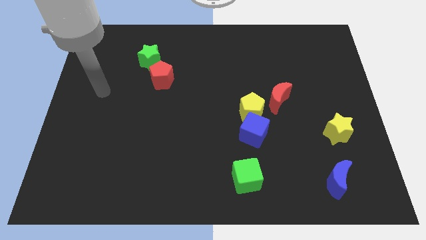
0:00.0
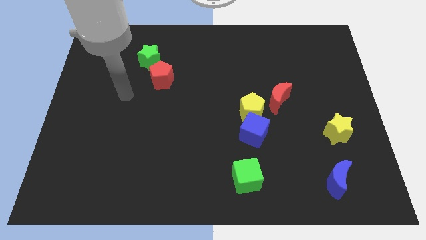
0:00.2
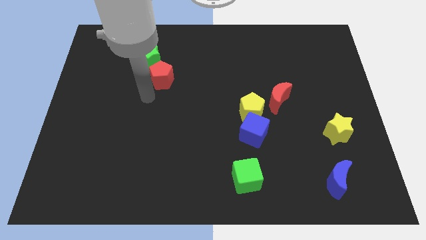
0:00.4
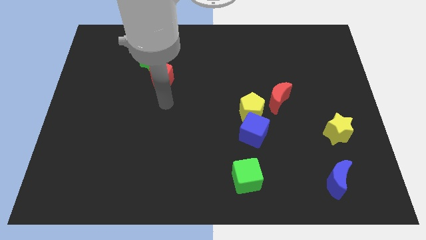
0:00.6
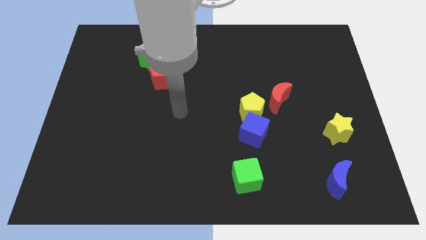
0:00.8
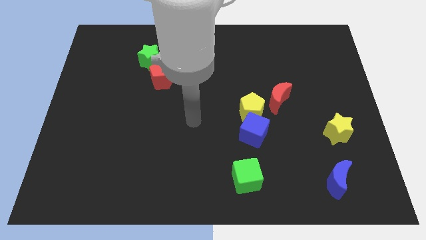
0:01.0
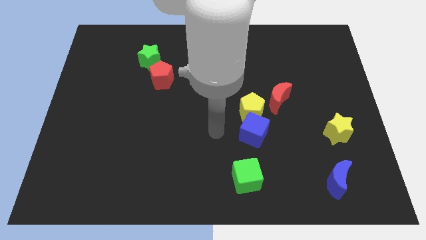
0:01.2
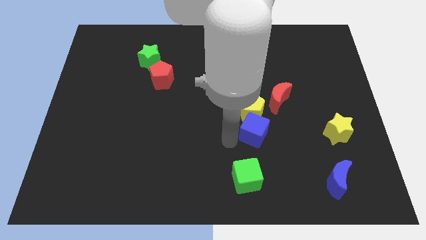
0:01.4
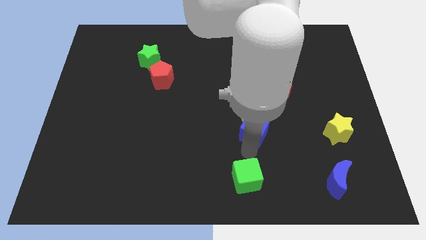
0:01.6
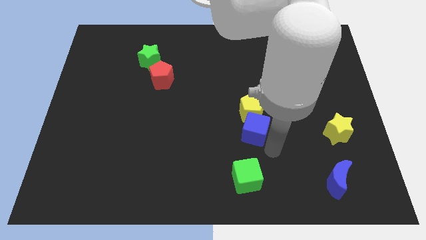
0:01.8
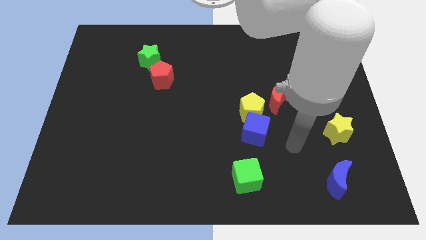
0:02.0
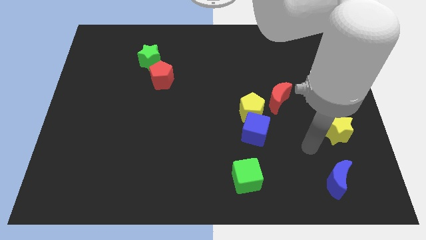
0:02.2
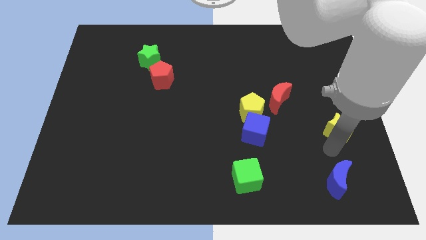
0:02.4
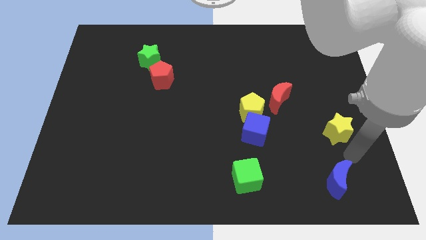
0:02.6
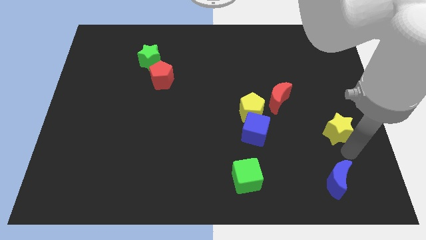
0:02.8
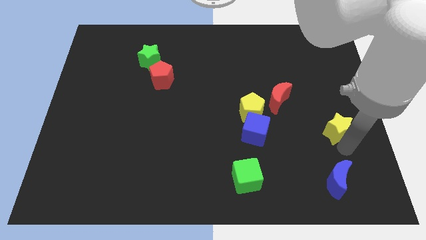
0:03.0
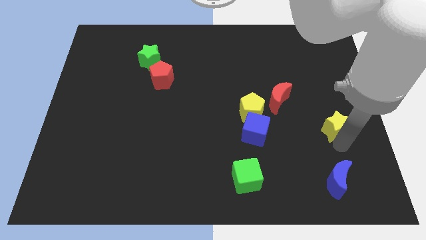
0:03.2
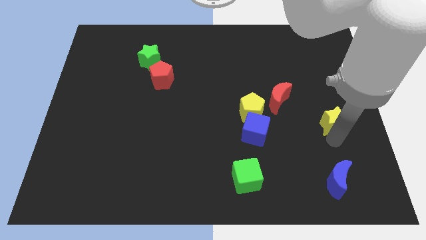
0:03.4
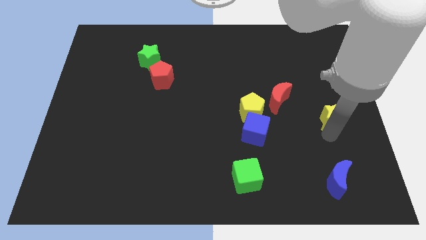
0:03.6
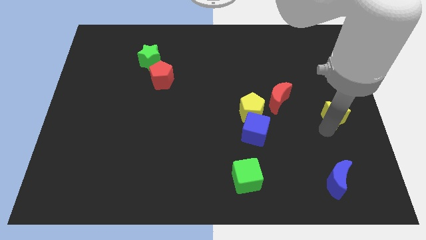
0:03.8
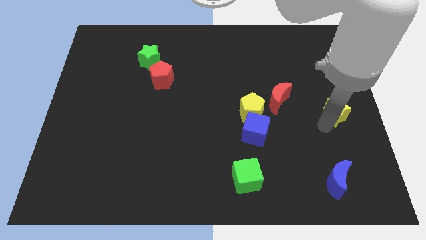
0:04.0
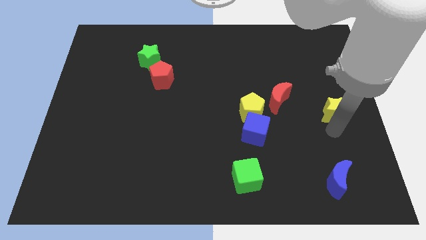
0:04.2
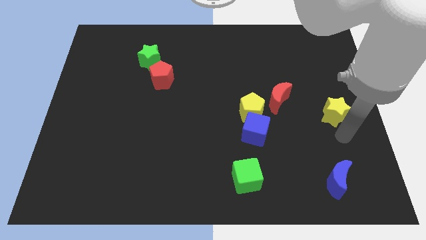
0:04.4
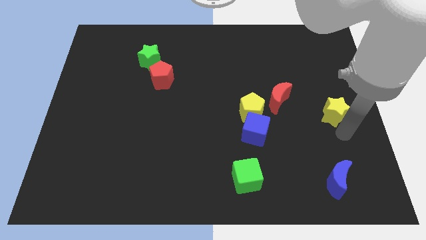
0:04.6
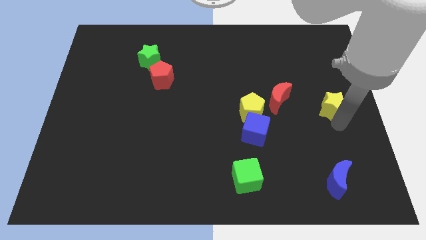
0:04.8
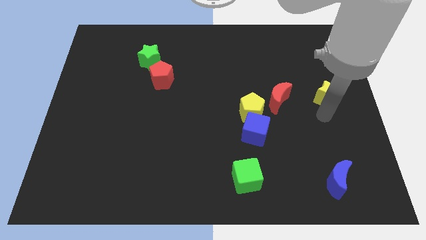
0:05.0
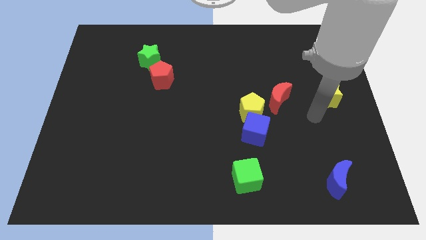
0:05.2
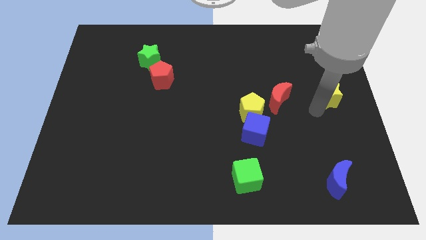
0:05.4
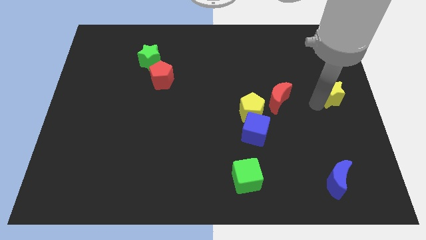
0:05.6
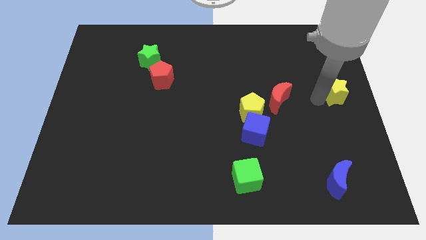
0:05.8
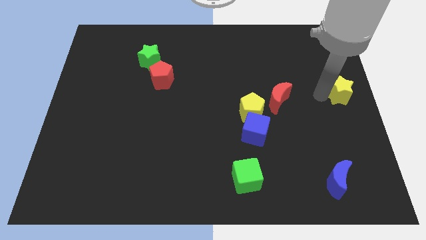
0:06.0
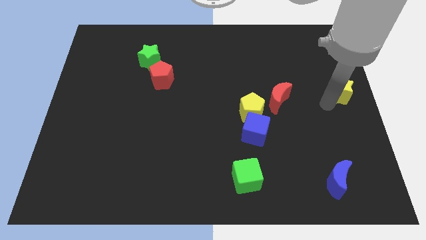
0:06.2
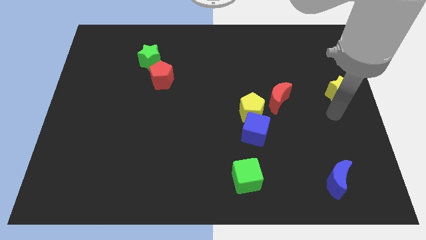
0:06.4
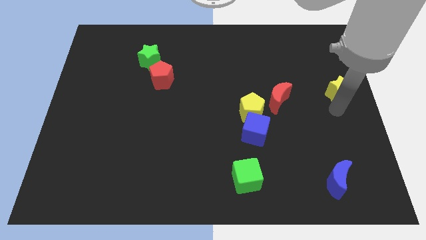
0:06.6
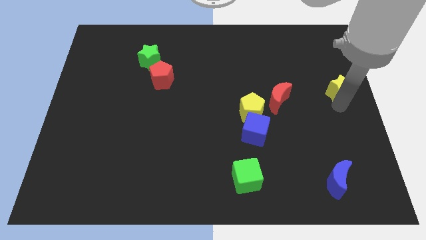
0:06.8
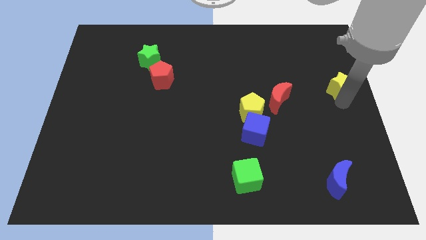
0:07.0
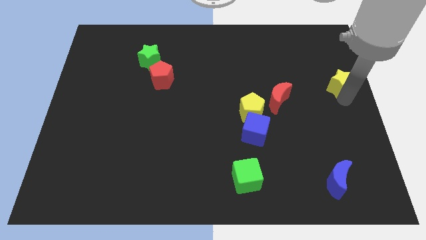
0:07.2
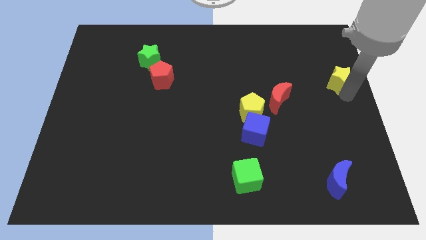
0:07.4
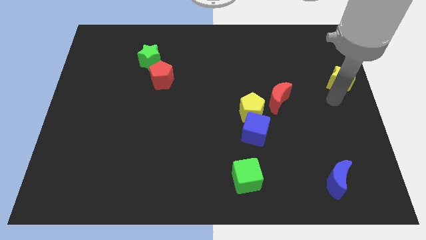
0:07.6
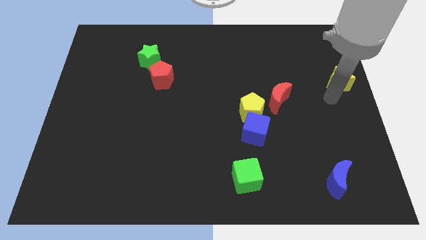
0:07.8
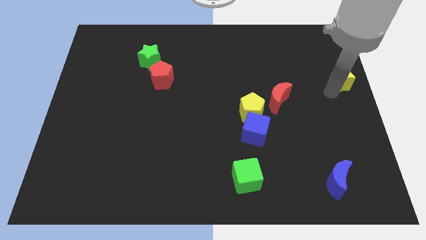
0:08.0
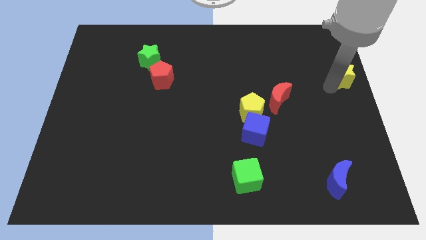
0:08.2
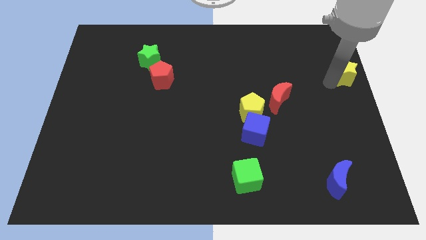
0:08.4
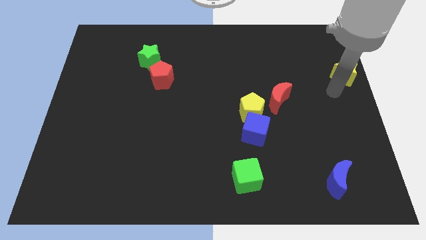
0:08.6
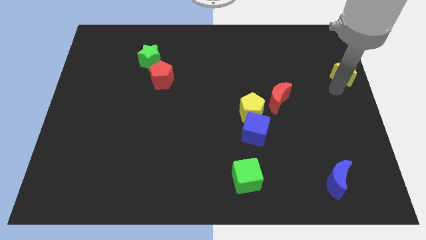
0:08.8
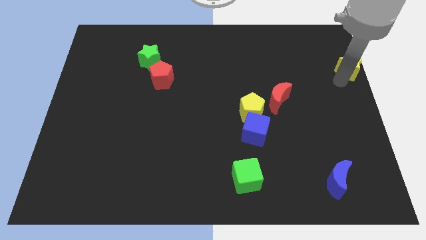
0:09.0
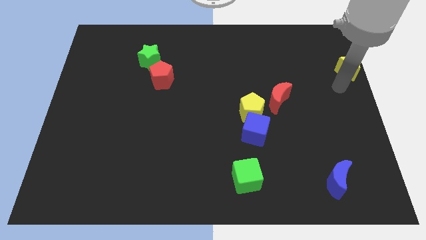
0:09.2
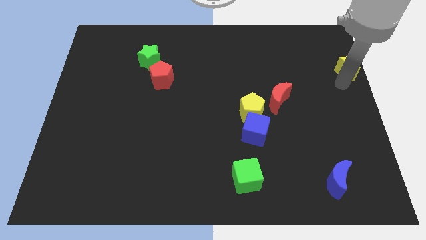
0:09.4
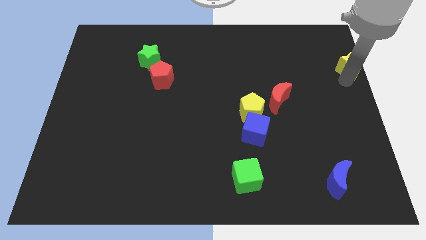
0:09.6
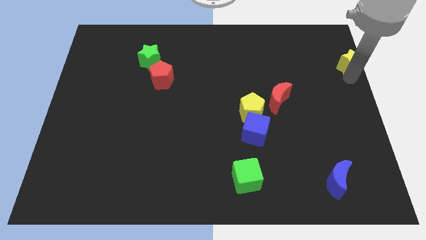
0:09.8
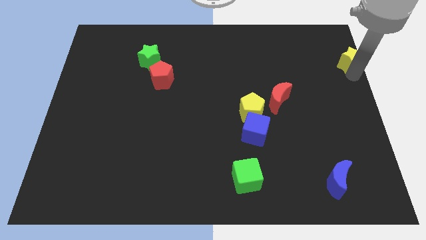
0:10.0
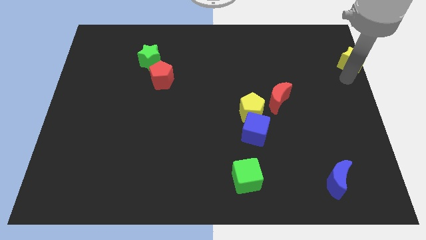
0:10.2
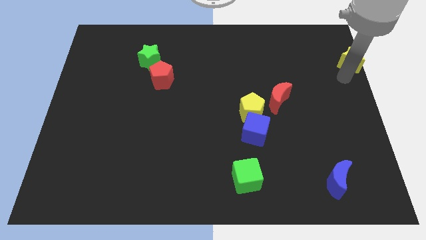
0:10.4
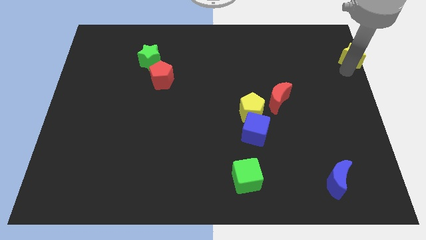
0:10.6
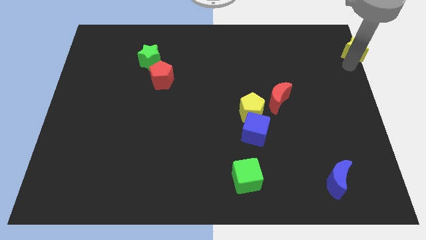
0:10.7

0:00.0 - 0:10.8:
push the yellow star to the top right

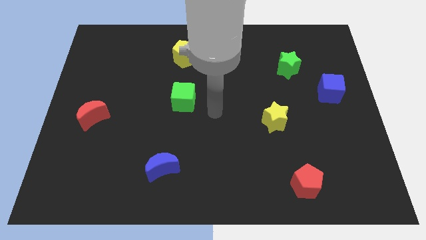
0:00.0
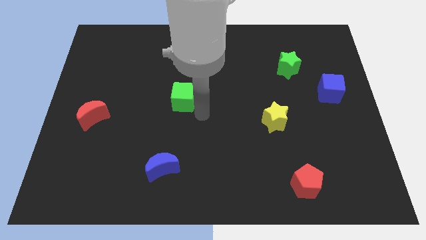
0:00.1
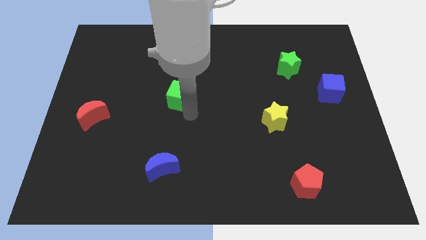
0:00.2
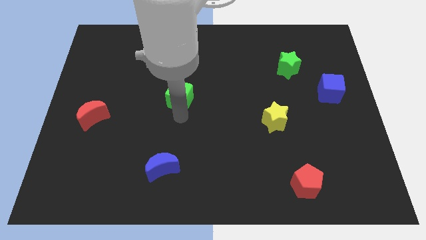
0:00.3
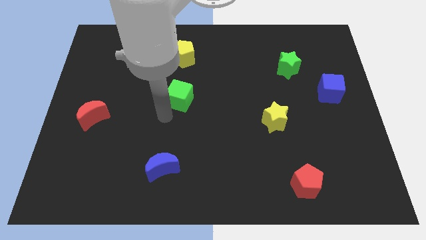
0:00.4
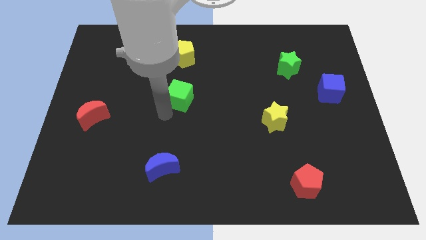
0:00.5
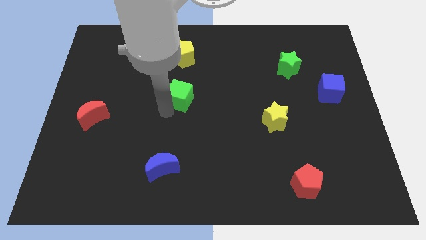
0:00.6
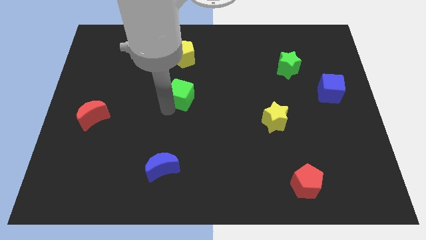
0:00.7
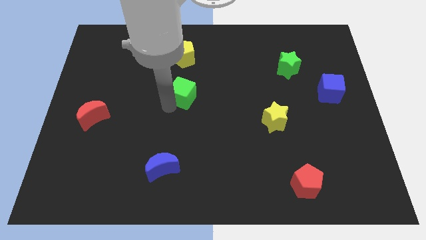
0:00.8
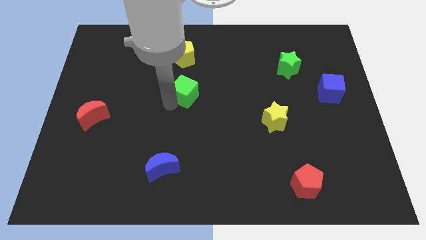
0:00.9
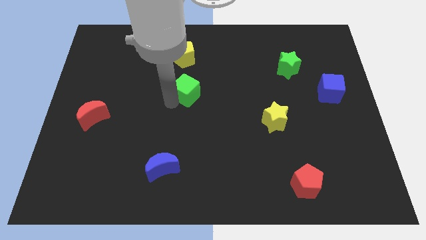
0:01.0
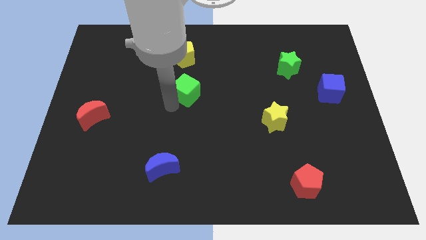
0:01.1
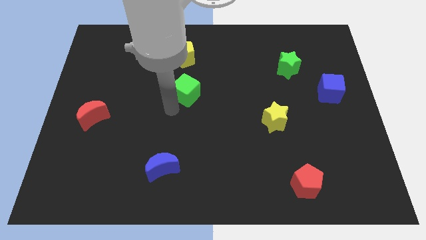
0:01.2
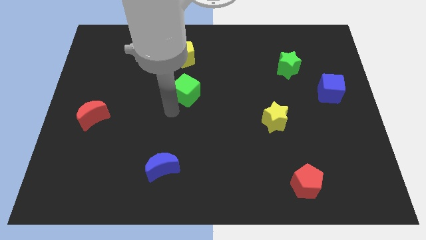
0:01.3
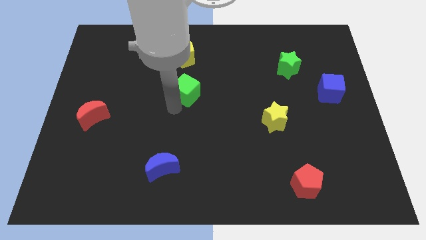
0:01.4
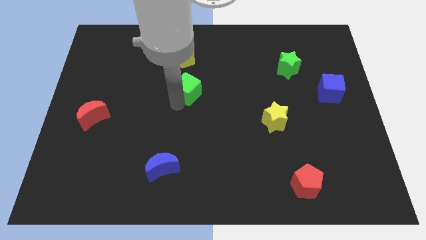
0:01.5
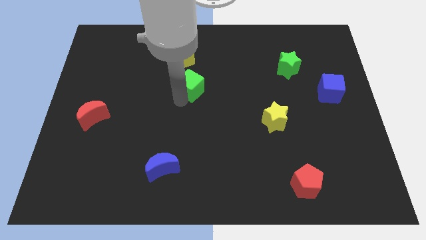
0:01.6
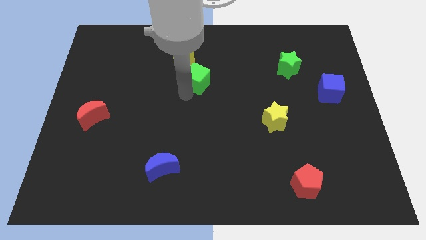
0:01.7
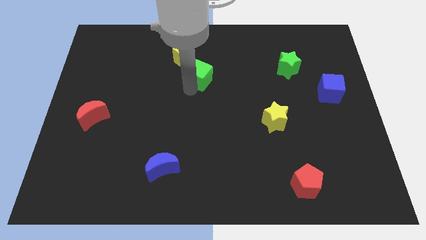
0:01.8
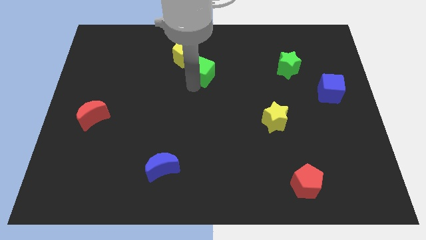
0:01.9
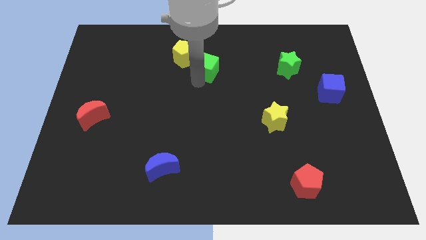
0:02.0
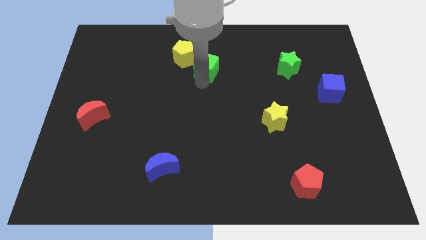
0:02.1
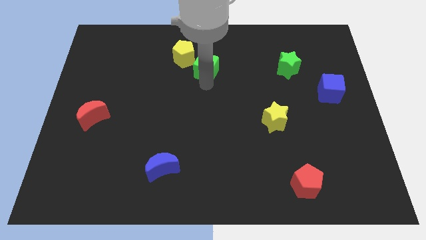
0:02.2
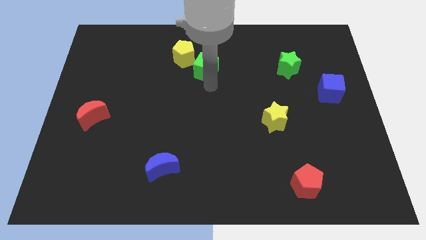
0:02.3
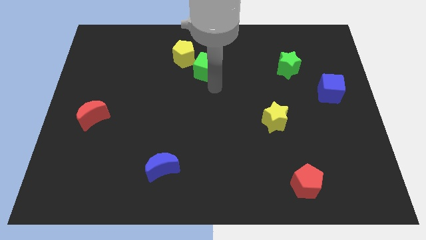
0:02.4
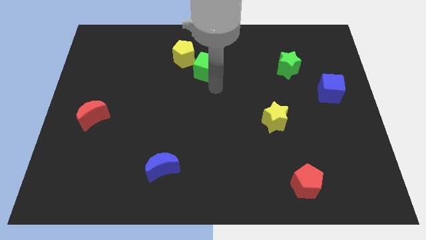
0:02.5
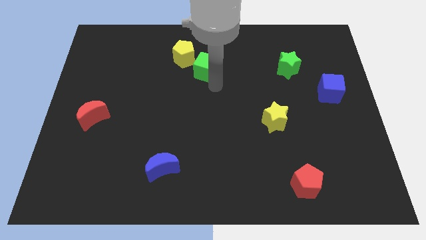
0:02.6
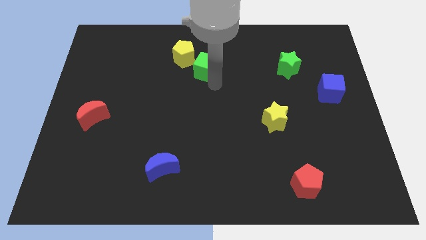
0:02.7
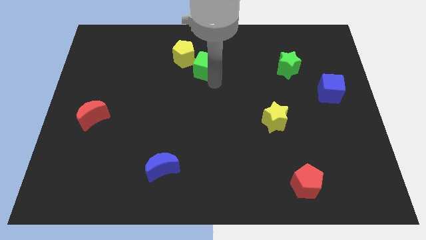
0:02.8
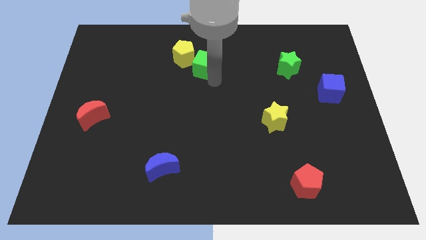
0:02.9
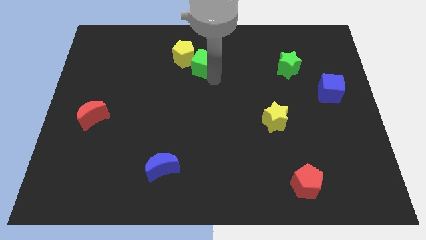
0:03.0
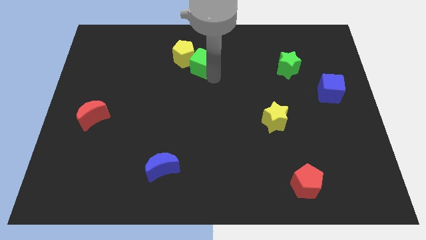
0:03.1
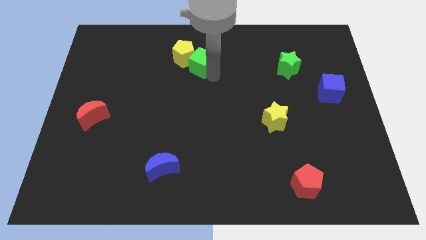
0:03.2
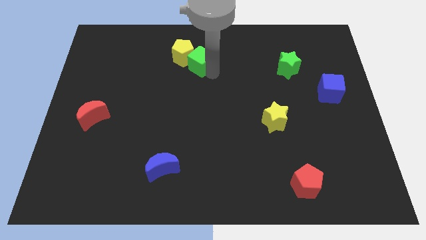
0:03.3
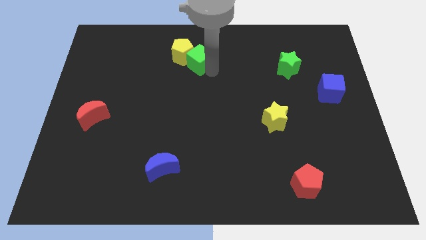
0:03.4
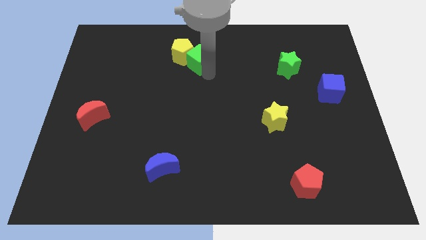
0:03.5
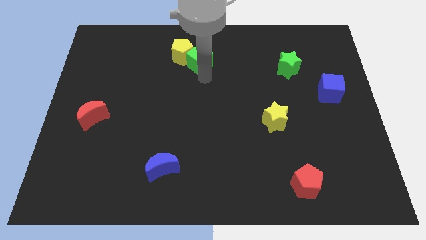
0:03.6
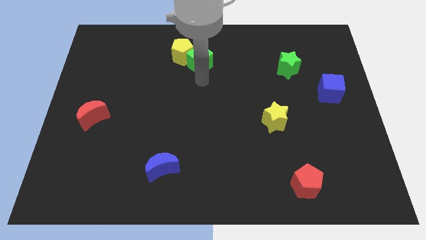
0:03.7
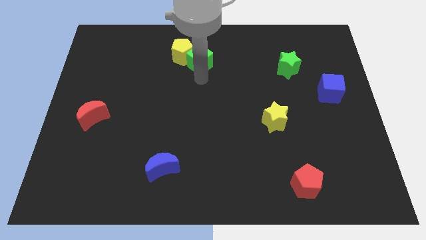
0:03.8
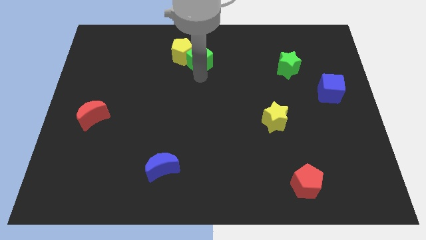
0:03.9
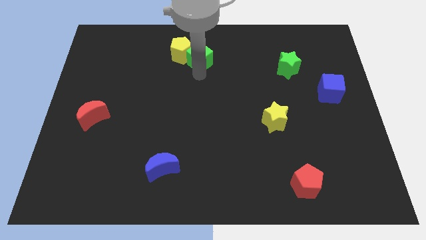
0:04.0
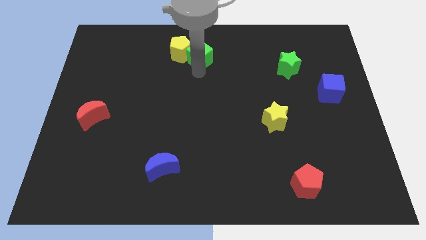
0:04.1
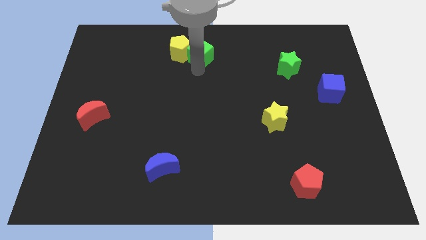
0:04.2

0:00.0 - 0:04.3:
slide the green cube to the top
